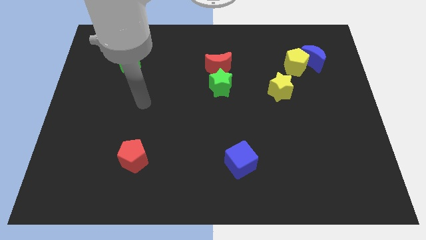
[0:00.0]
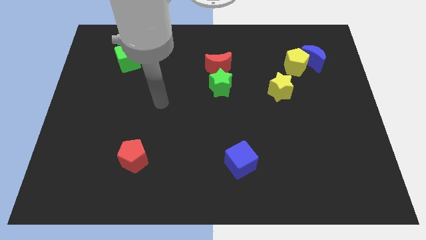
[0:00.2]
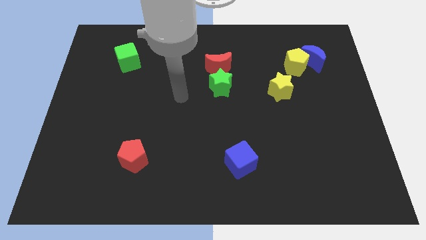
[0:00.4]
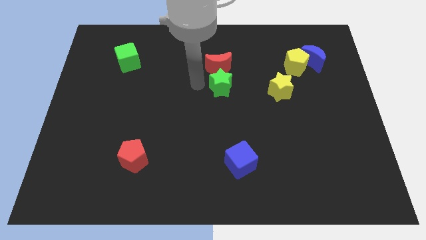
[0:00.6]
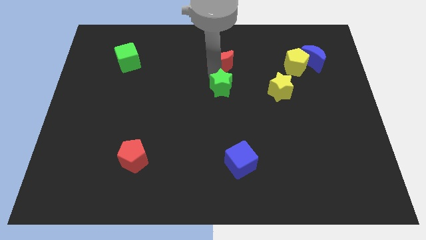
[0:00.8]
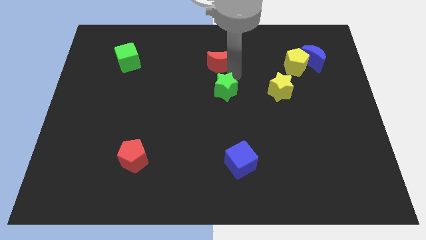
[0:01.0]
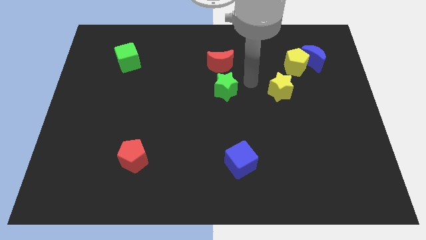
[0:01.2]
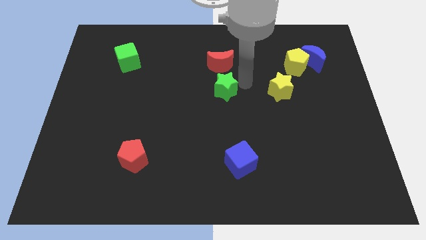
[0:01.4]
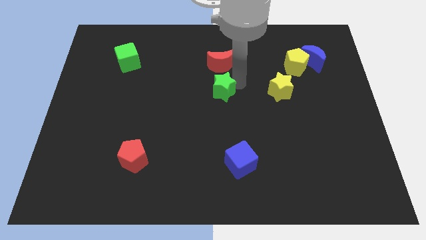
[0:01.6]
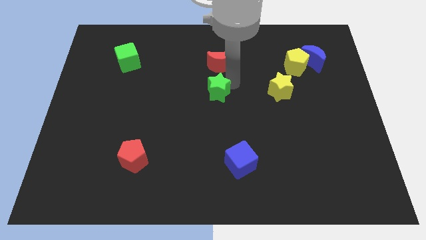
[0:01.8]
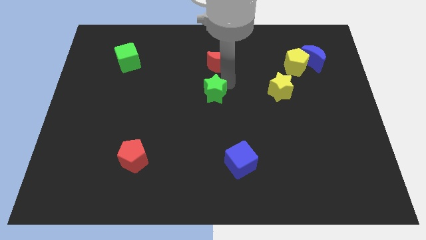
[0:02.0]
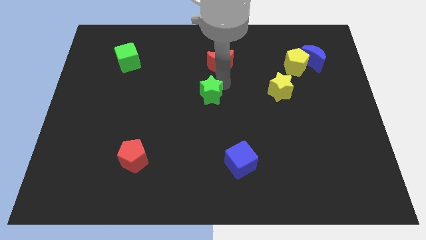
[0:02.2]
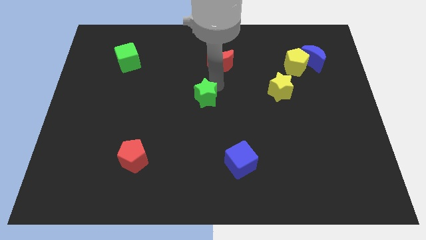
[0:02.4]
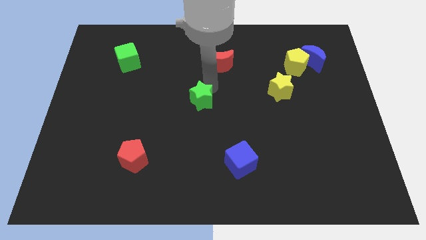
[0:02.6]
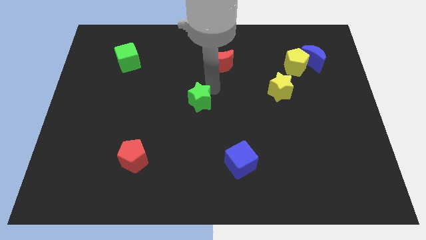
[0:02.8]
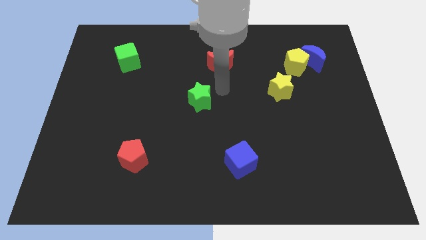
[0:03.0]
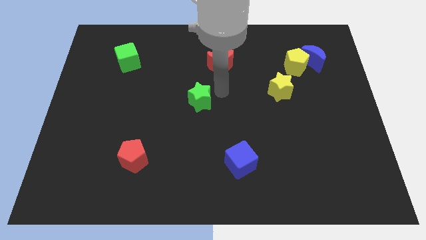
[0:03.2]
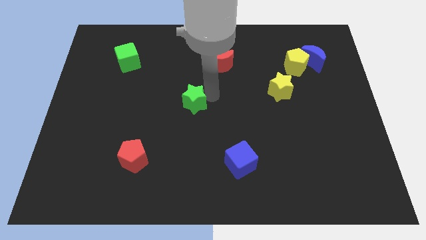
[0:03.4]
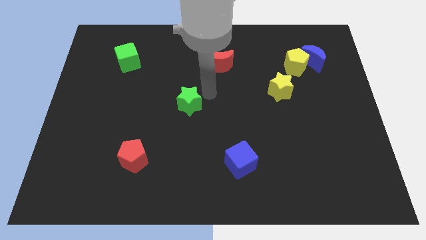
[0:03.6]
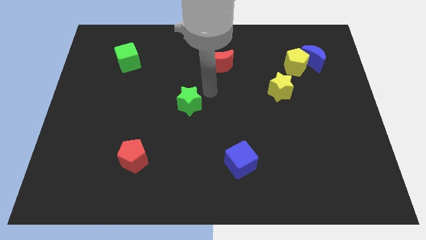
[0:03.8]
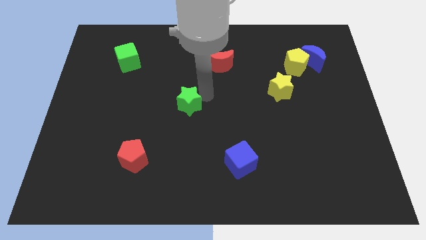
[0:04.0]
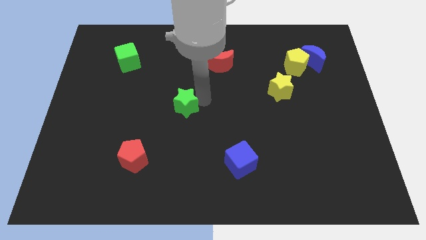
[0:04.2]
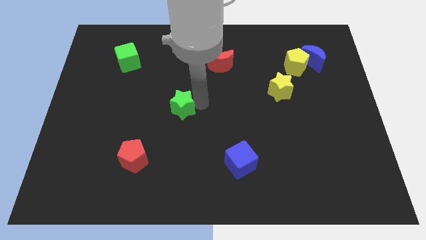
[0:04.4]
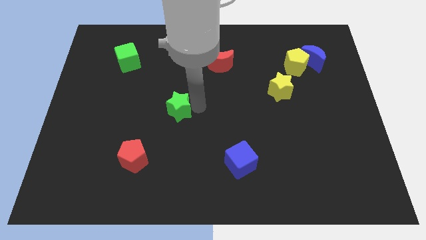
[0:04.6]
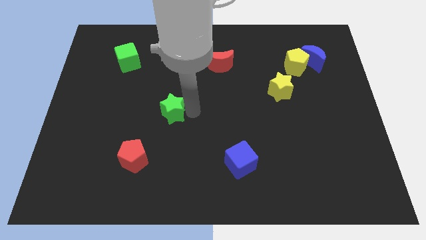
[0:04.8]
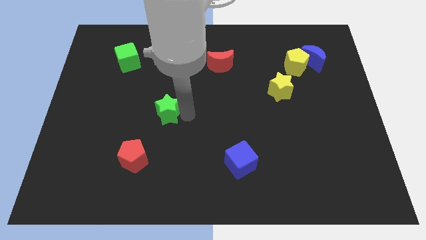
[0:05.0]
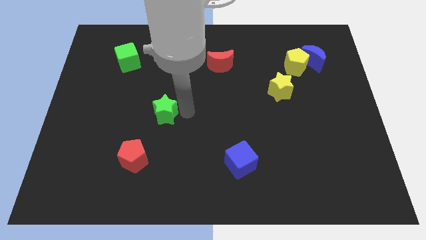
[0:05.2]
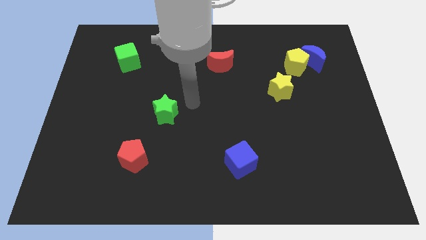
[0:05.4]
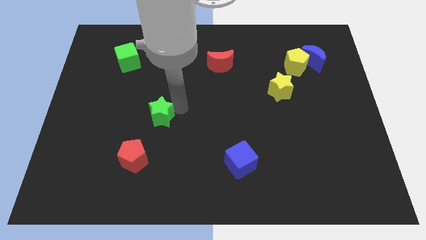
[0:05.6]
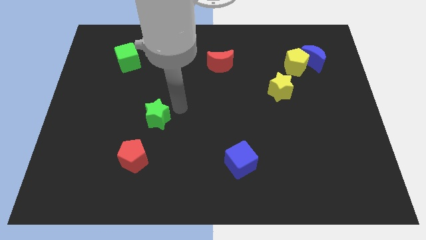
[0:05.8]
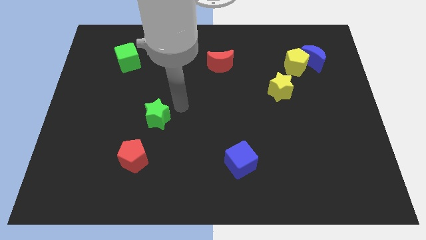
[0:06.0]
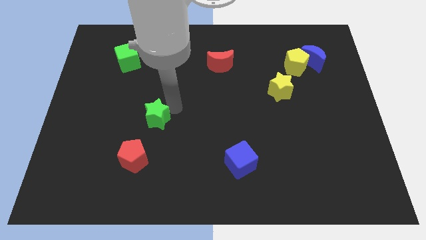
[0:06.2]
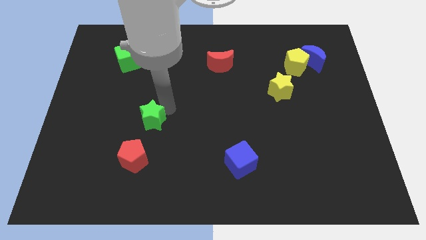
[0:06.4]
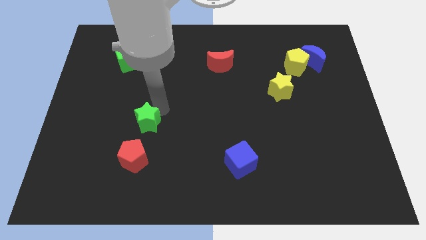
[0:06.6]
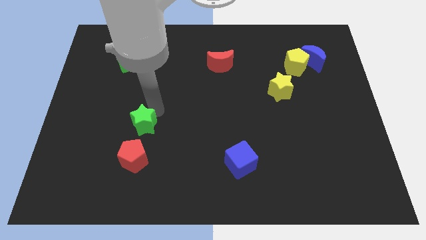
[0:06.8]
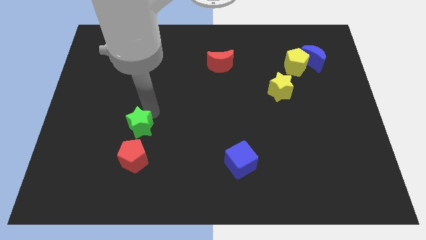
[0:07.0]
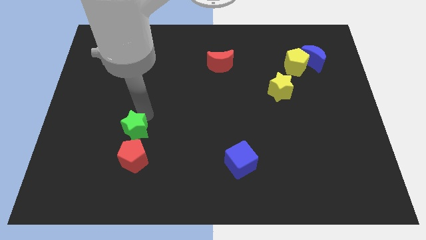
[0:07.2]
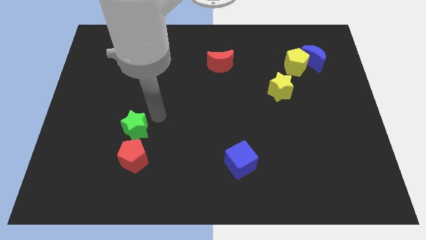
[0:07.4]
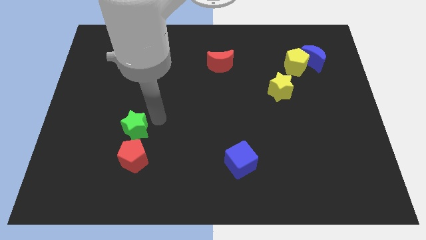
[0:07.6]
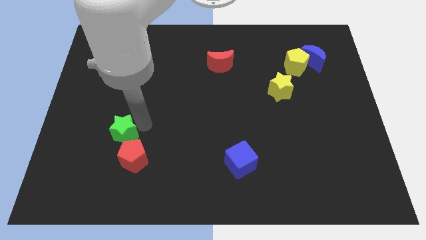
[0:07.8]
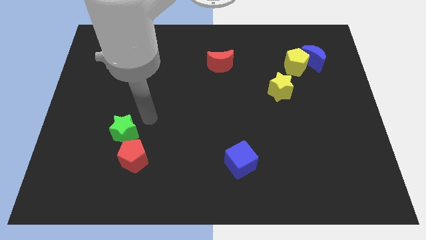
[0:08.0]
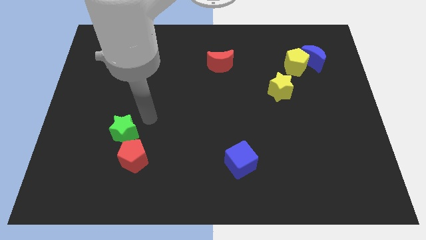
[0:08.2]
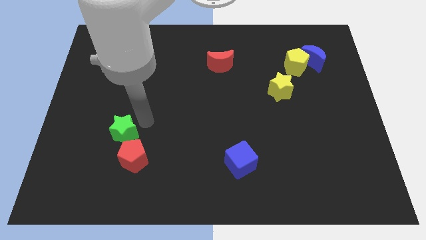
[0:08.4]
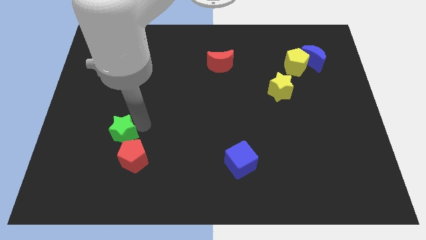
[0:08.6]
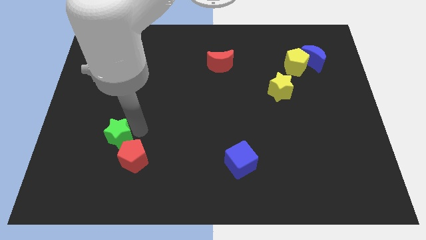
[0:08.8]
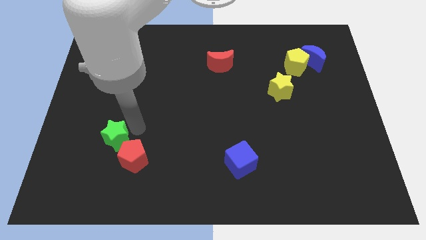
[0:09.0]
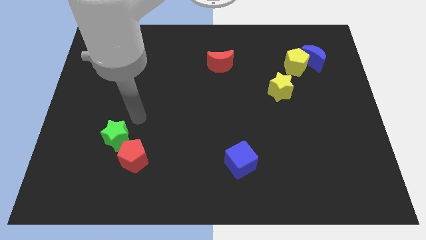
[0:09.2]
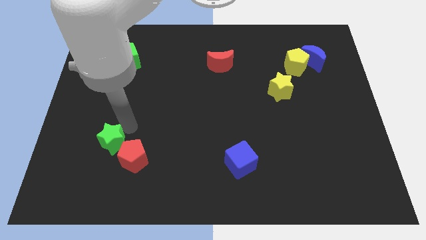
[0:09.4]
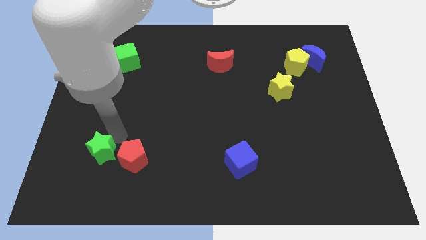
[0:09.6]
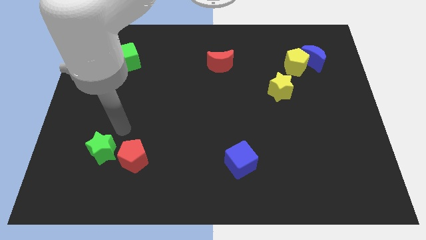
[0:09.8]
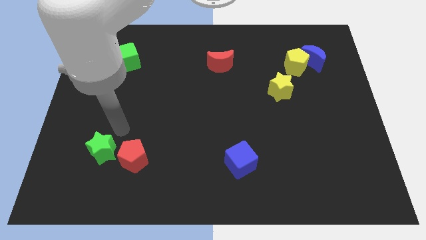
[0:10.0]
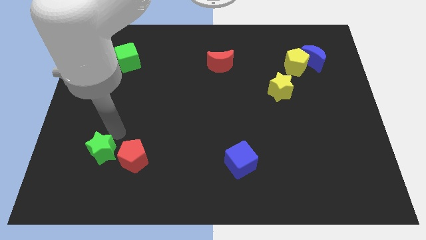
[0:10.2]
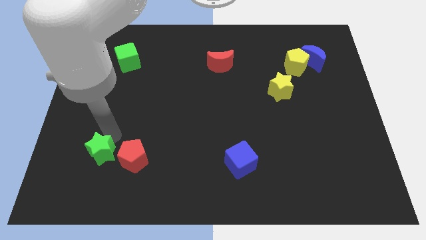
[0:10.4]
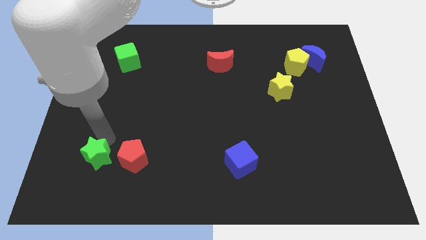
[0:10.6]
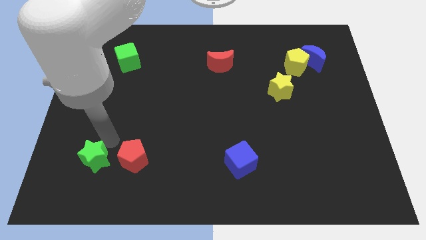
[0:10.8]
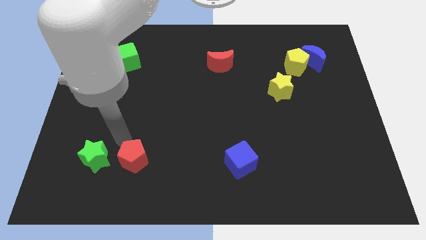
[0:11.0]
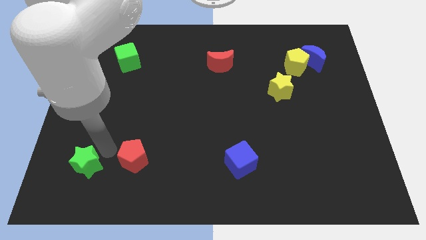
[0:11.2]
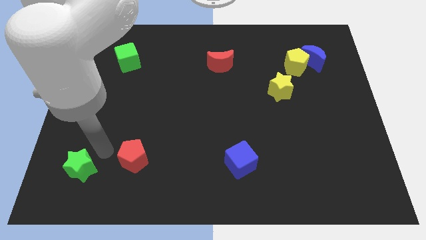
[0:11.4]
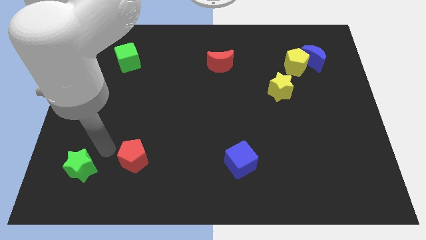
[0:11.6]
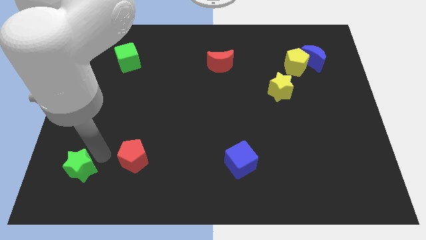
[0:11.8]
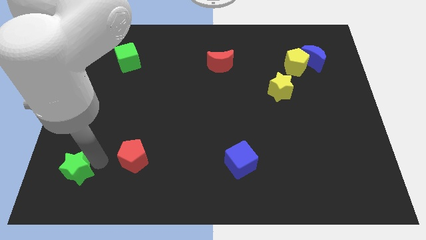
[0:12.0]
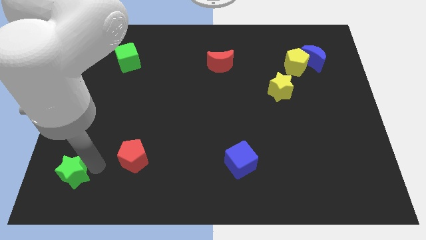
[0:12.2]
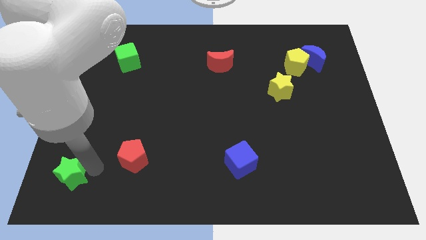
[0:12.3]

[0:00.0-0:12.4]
slide the green star to the lower left corner
